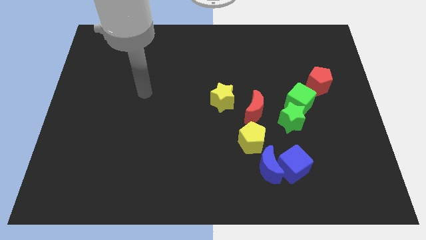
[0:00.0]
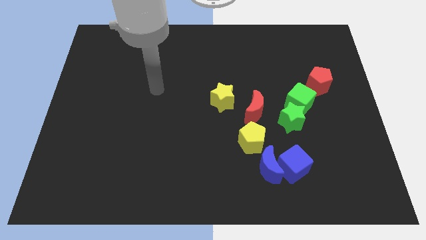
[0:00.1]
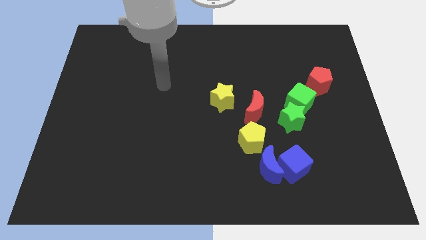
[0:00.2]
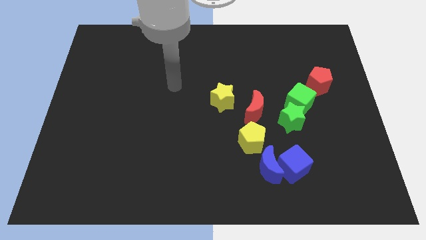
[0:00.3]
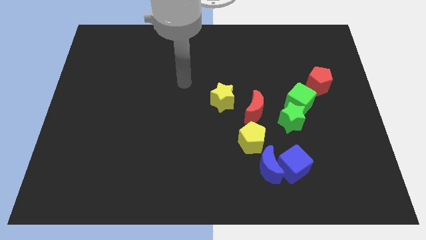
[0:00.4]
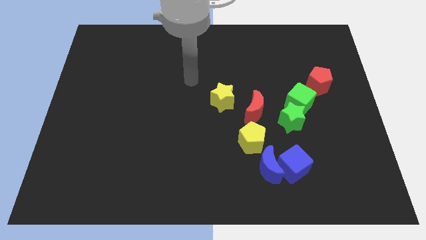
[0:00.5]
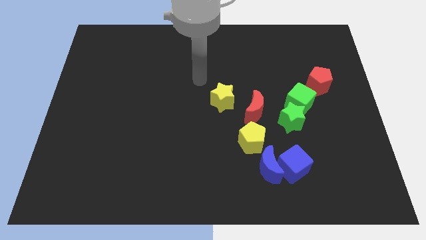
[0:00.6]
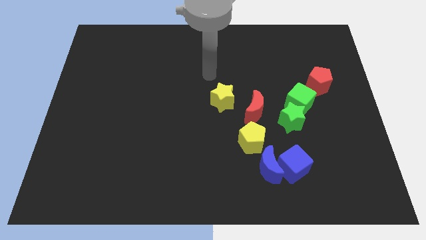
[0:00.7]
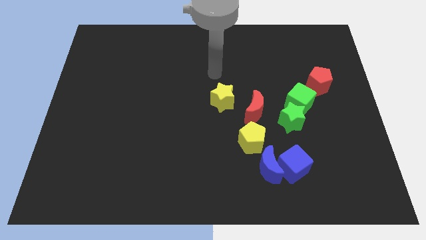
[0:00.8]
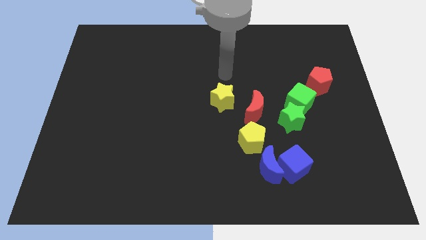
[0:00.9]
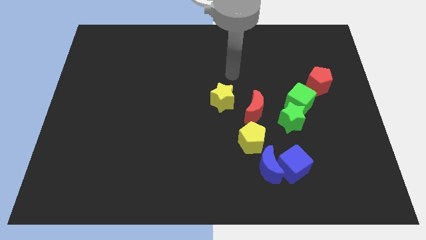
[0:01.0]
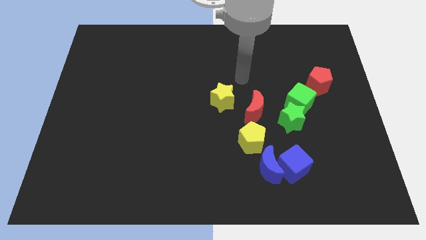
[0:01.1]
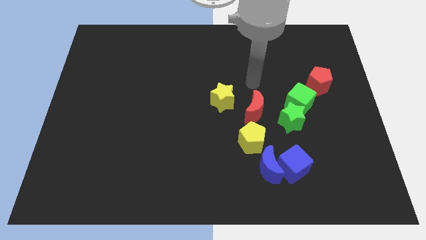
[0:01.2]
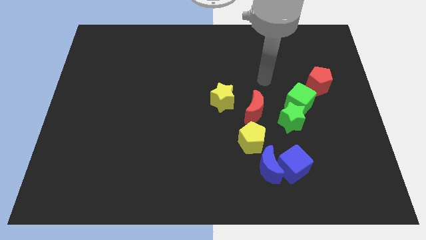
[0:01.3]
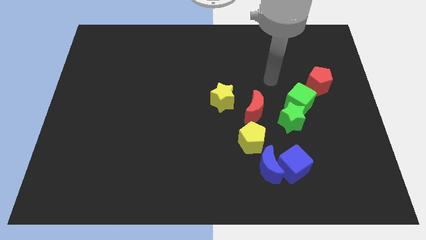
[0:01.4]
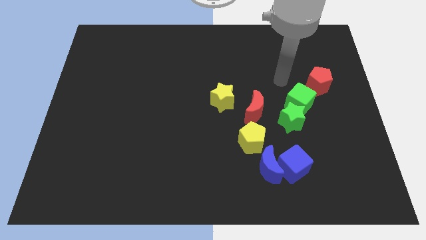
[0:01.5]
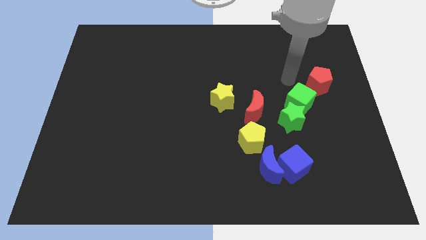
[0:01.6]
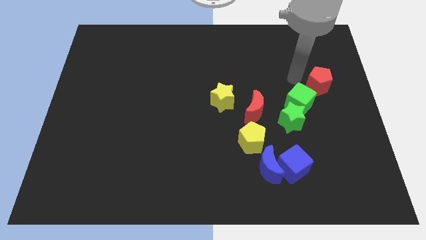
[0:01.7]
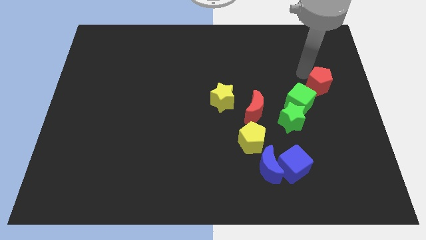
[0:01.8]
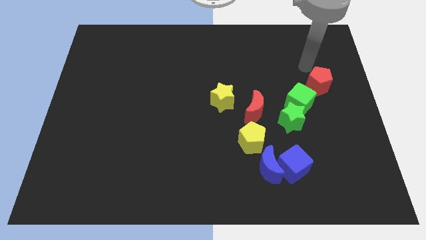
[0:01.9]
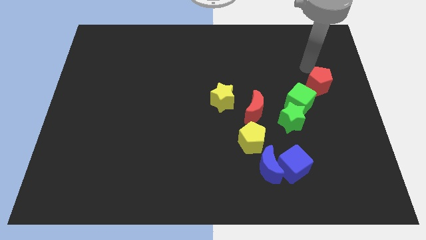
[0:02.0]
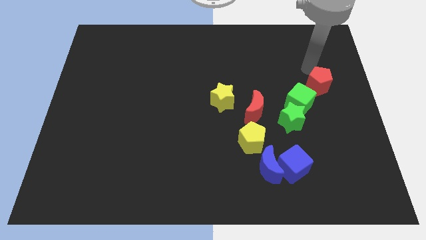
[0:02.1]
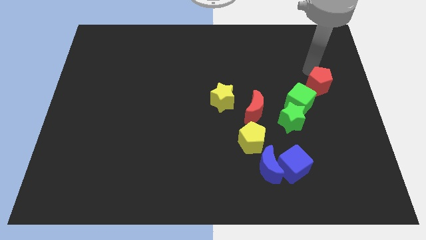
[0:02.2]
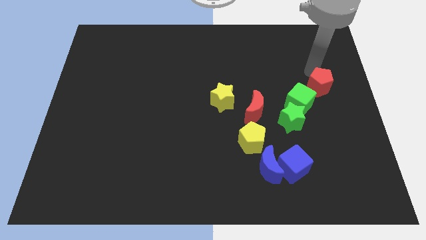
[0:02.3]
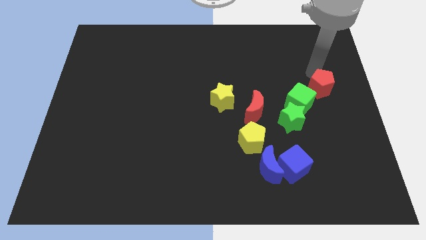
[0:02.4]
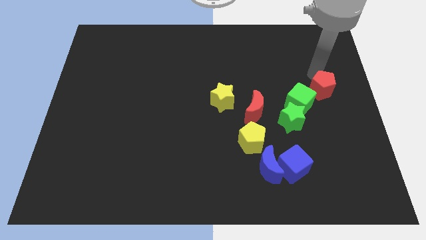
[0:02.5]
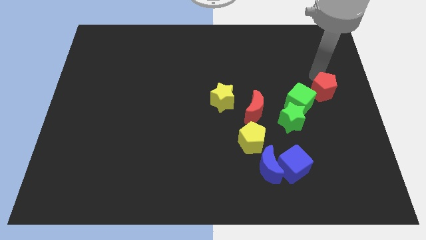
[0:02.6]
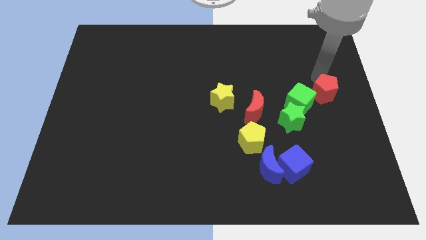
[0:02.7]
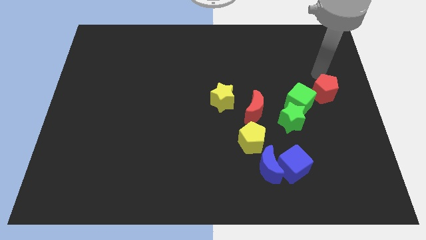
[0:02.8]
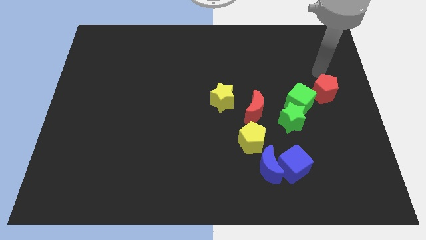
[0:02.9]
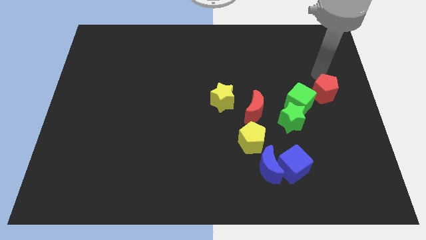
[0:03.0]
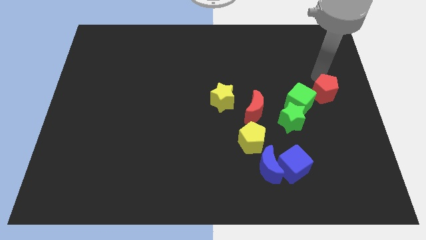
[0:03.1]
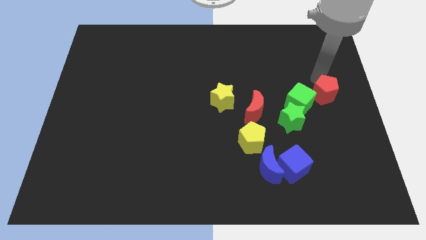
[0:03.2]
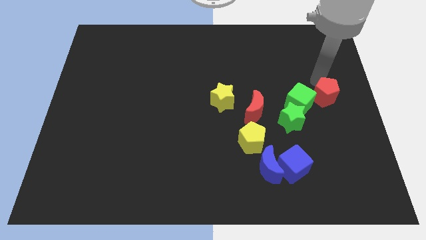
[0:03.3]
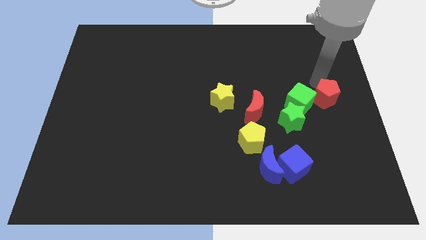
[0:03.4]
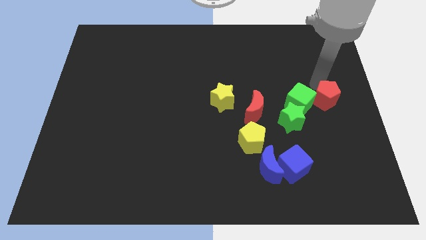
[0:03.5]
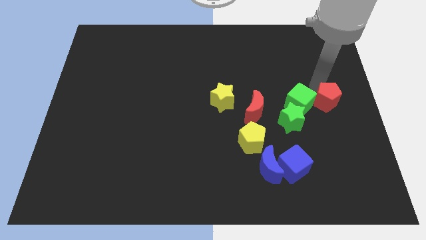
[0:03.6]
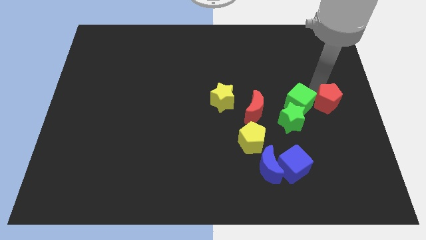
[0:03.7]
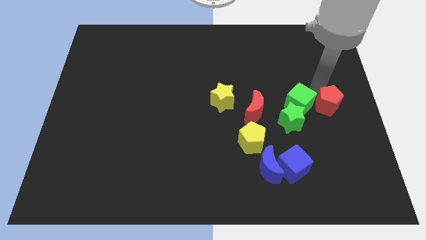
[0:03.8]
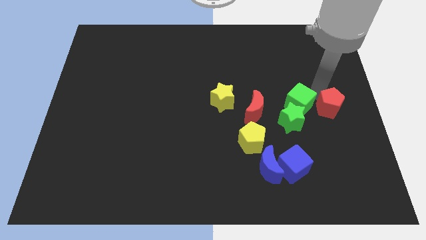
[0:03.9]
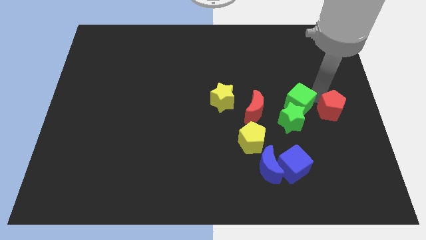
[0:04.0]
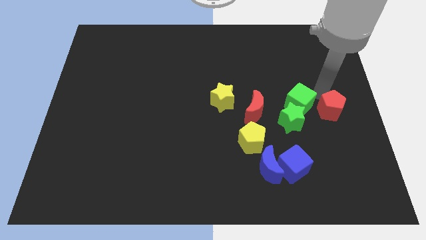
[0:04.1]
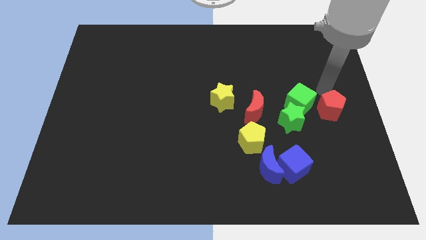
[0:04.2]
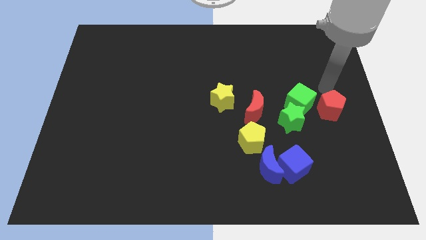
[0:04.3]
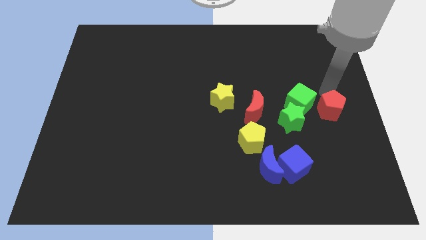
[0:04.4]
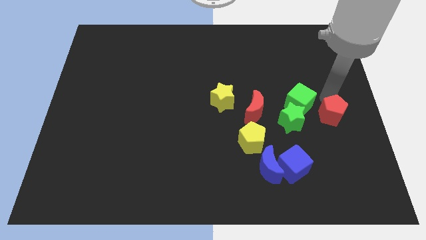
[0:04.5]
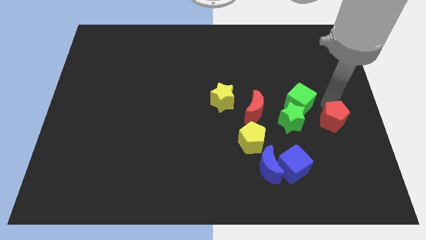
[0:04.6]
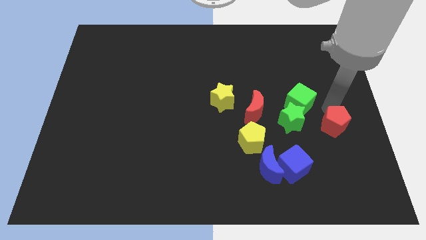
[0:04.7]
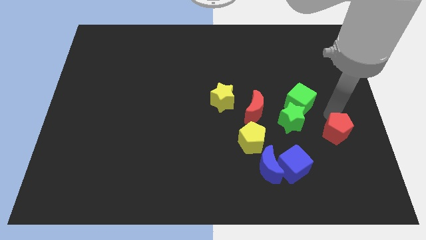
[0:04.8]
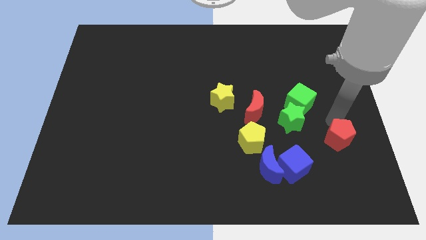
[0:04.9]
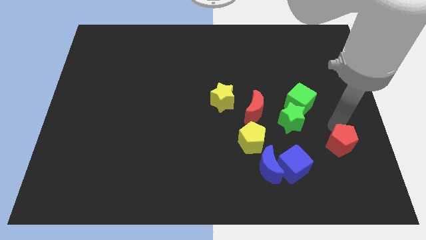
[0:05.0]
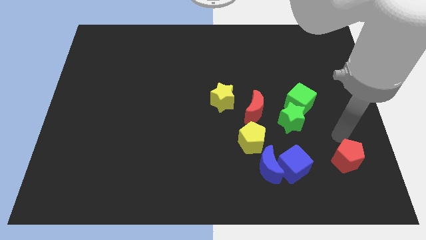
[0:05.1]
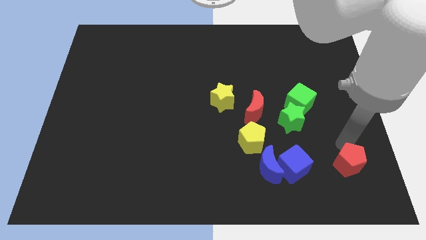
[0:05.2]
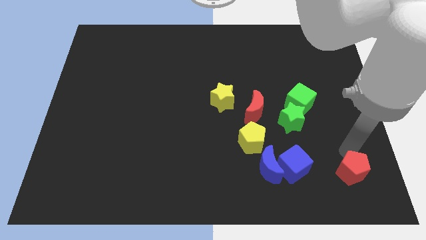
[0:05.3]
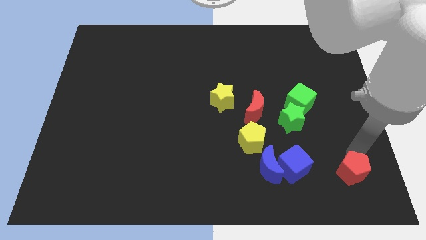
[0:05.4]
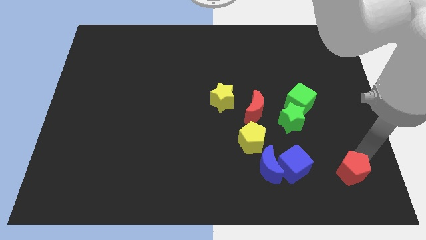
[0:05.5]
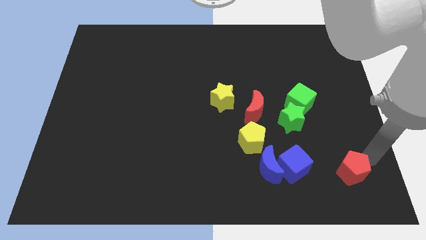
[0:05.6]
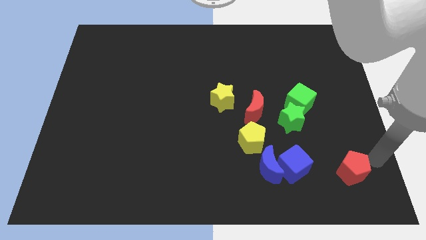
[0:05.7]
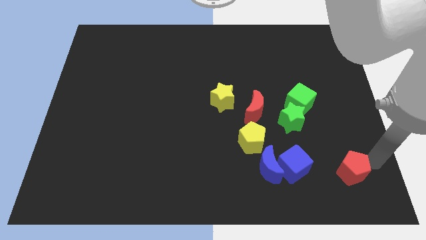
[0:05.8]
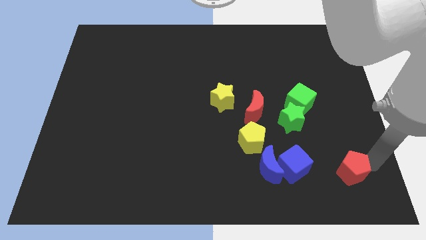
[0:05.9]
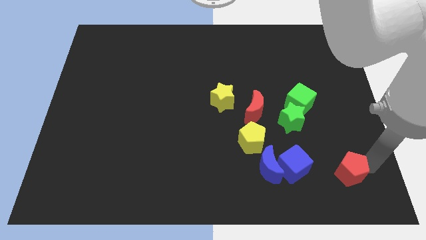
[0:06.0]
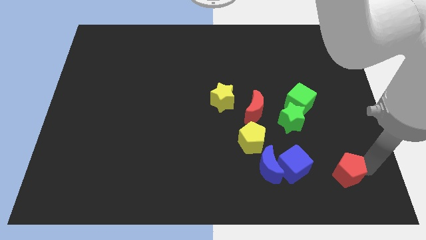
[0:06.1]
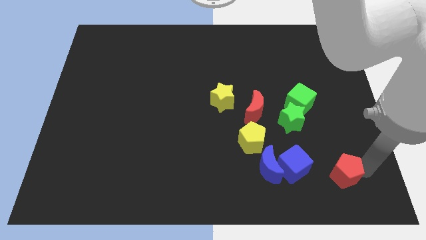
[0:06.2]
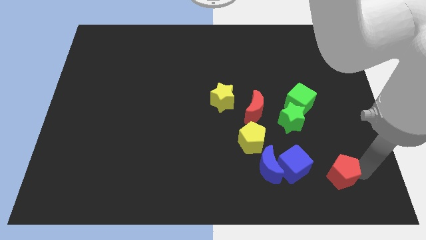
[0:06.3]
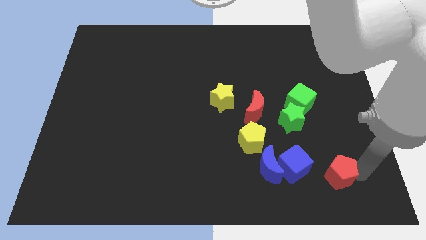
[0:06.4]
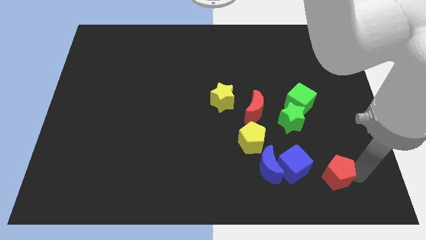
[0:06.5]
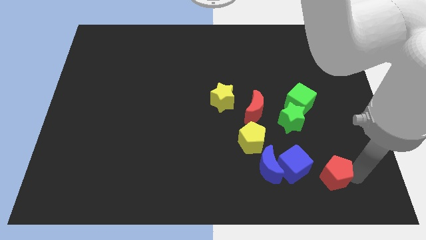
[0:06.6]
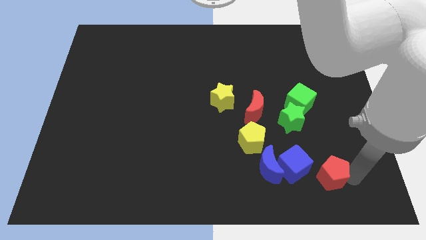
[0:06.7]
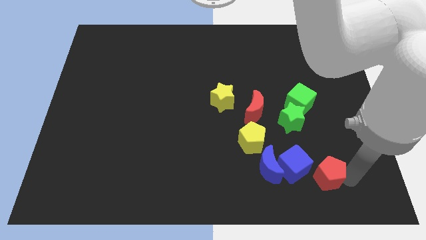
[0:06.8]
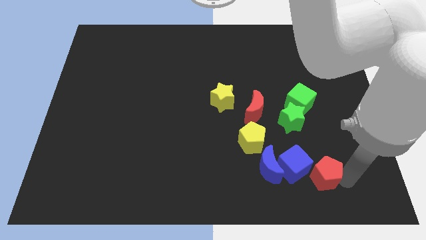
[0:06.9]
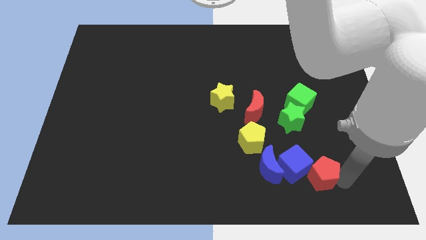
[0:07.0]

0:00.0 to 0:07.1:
slide the red pentagon to the bottom side of the green star

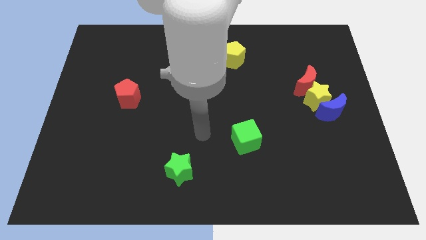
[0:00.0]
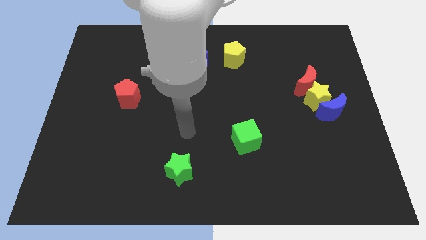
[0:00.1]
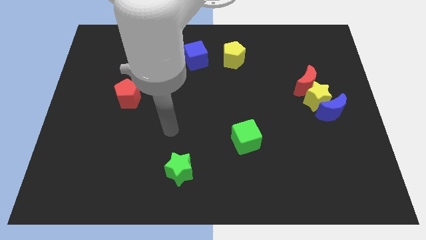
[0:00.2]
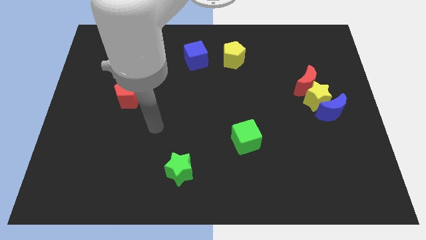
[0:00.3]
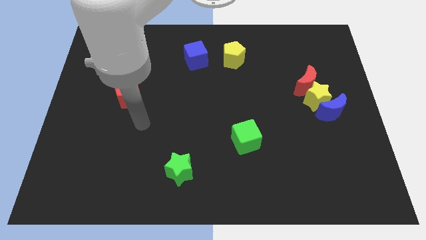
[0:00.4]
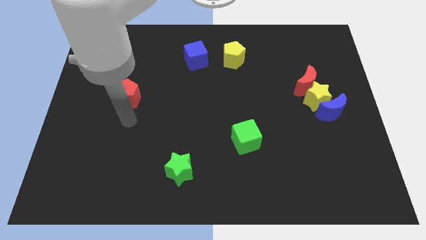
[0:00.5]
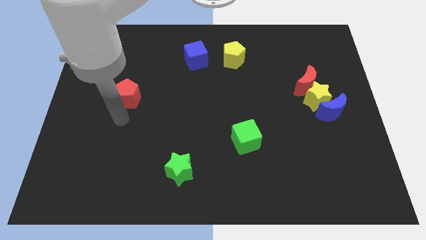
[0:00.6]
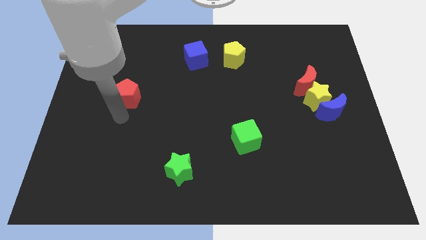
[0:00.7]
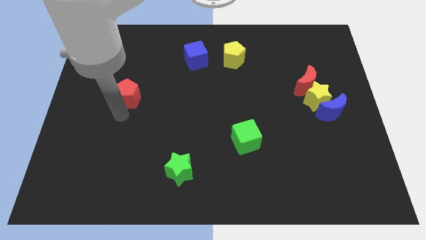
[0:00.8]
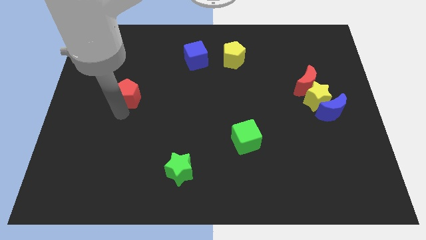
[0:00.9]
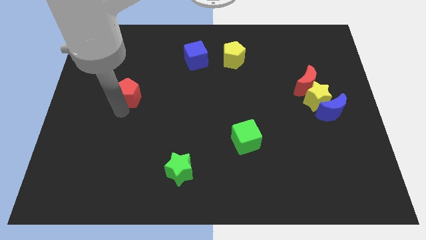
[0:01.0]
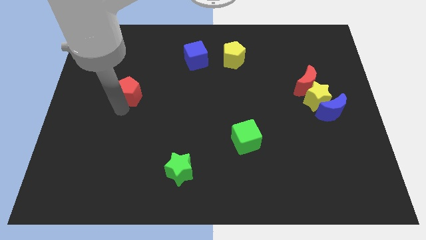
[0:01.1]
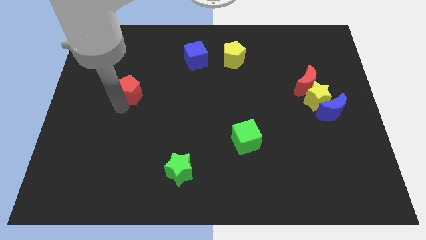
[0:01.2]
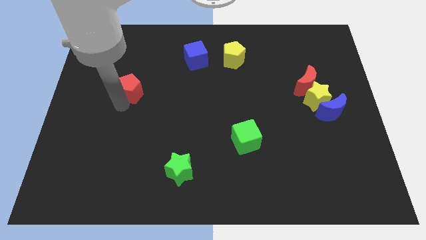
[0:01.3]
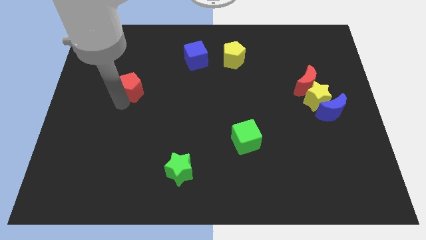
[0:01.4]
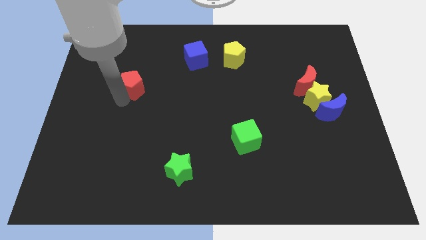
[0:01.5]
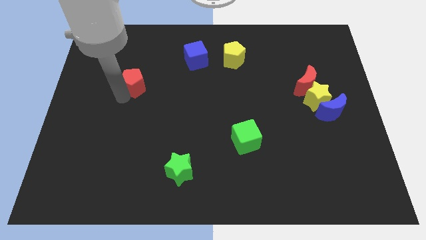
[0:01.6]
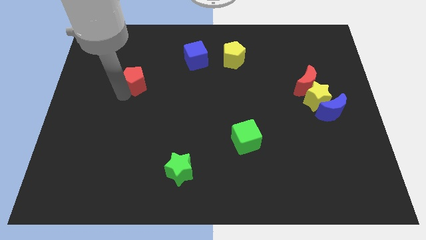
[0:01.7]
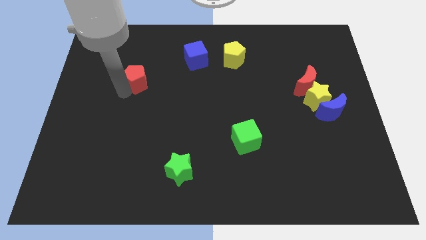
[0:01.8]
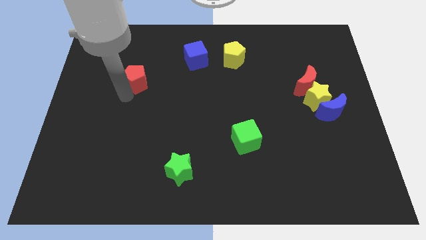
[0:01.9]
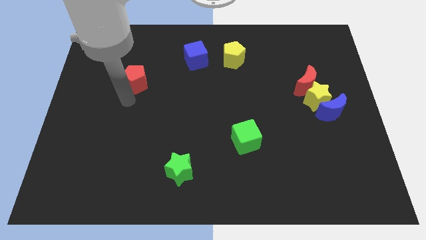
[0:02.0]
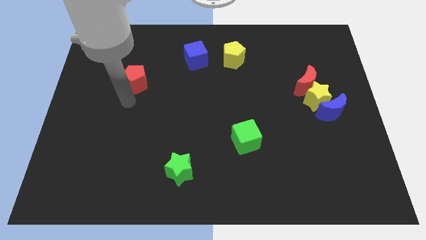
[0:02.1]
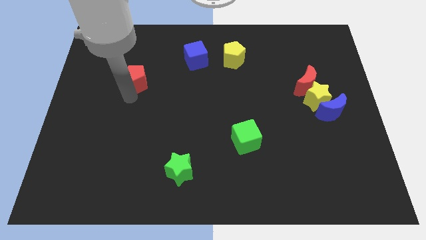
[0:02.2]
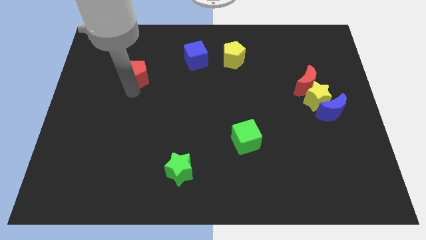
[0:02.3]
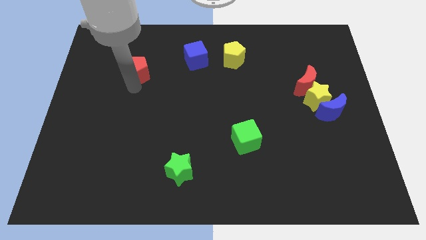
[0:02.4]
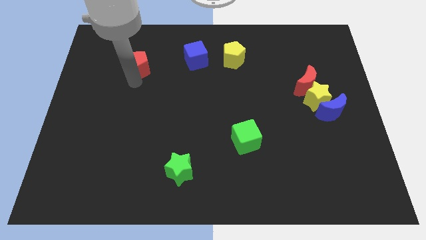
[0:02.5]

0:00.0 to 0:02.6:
move the red pentagon to the left side of the blue cube
